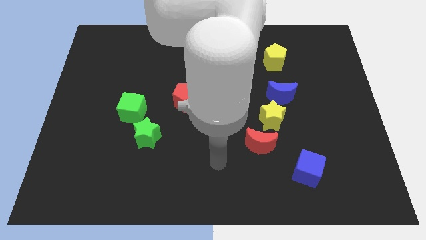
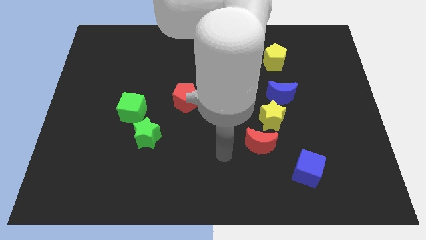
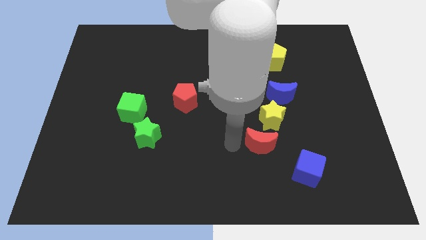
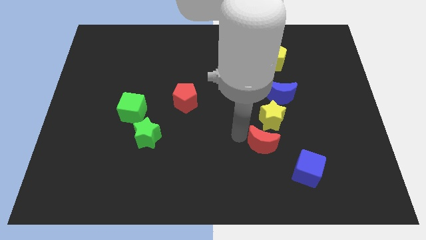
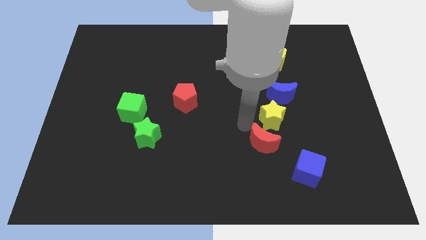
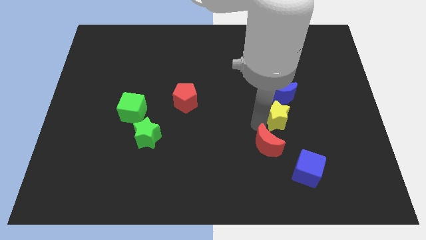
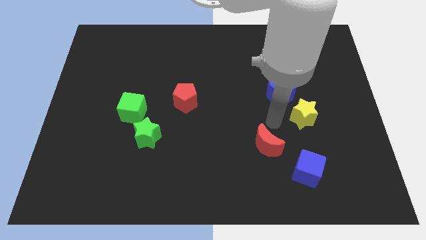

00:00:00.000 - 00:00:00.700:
separate the red moon from the yellow star

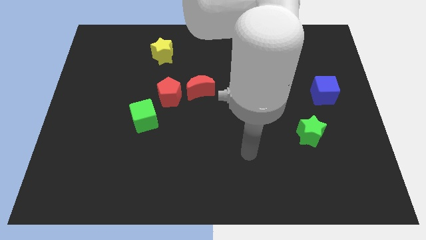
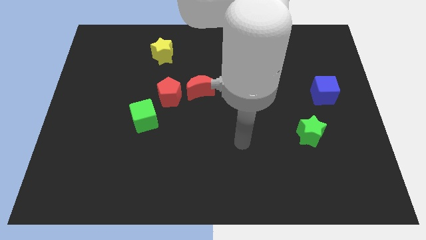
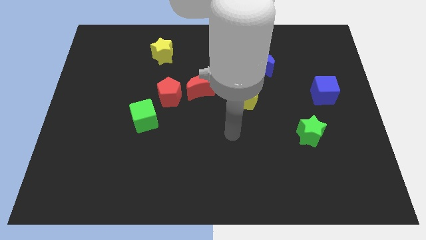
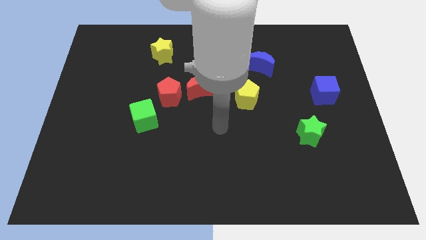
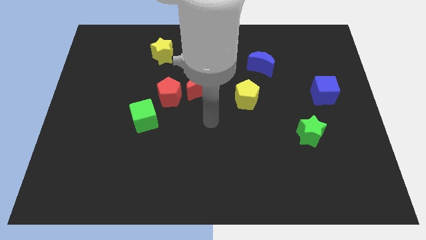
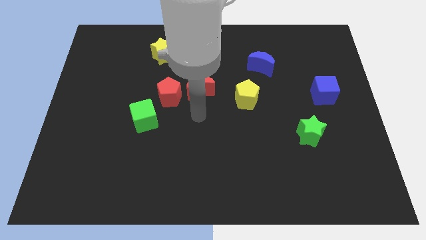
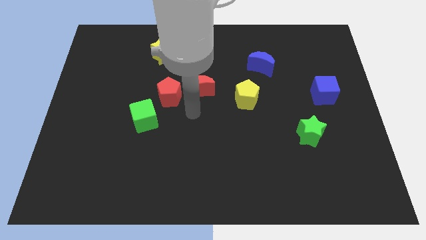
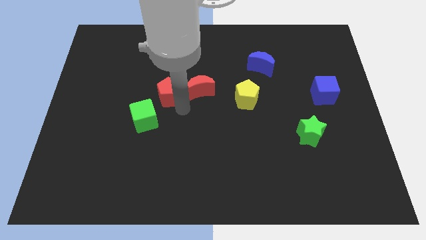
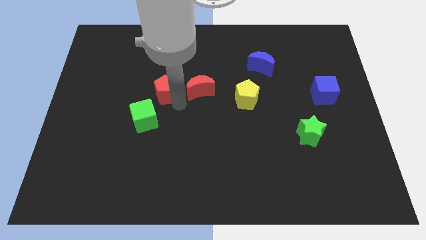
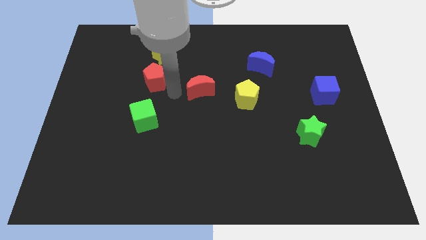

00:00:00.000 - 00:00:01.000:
pull the red moon apart from the red pentagon

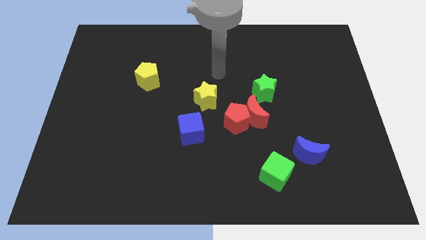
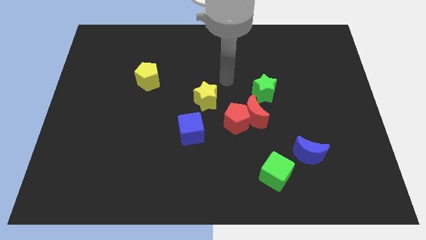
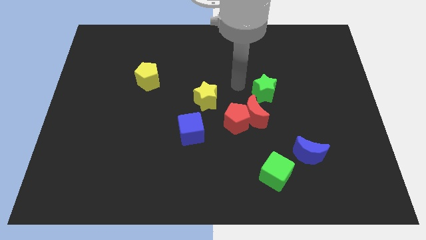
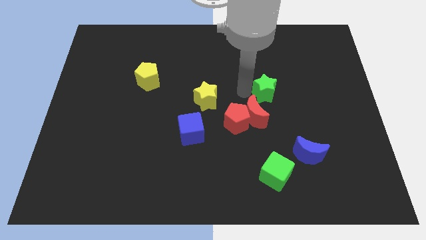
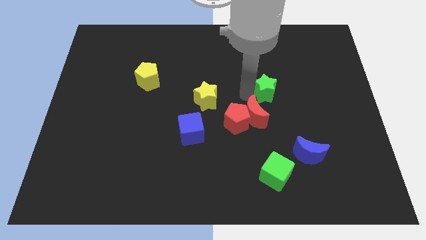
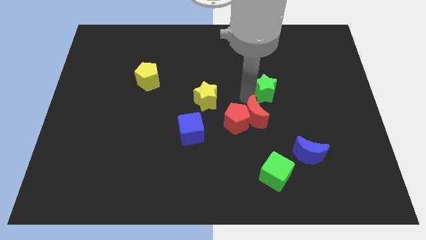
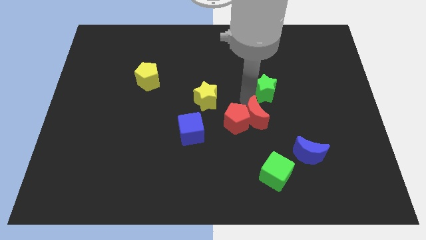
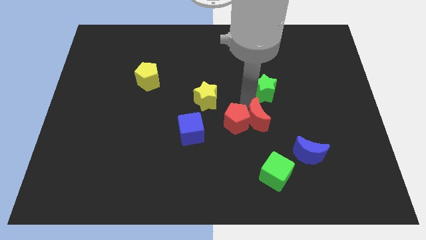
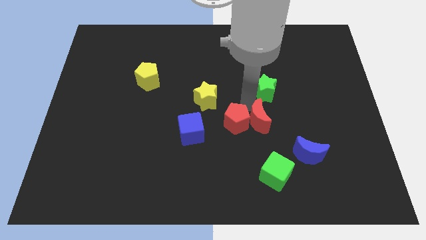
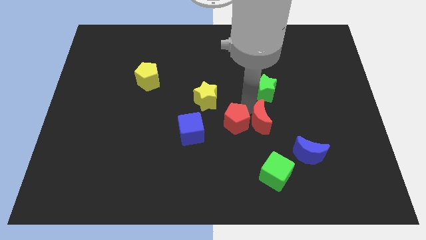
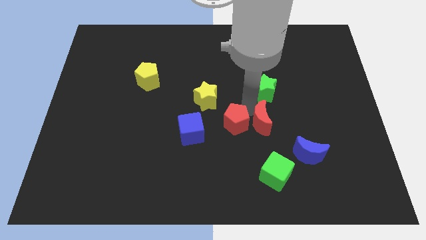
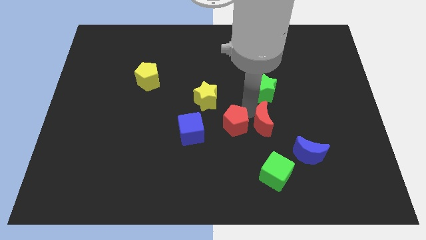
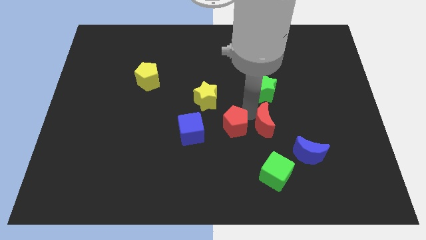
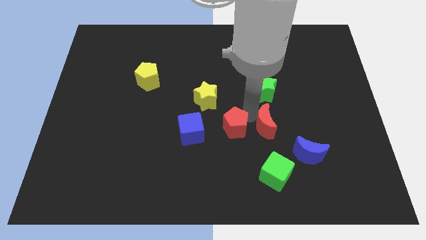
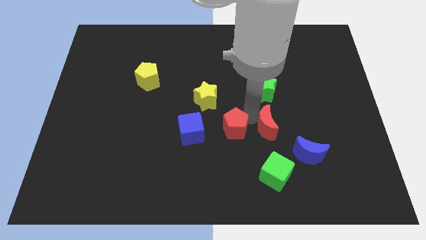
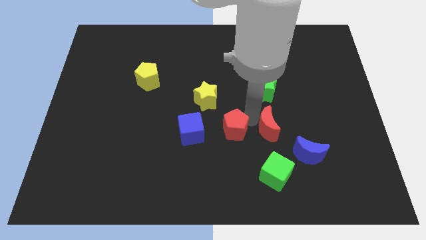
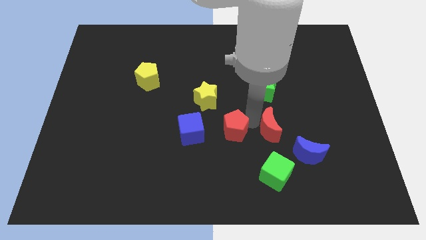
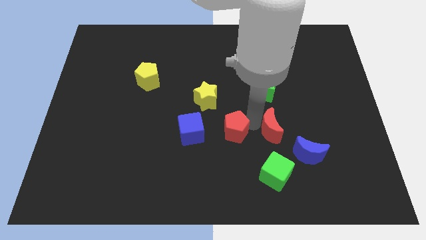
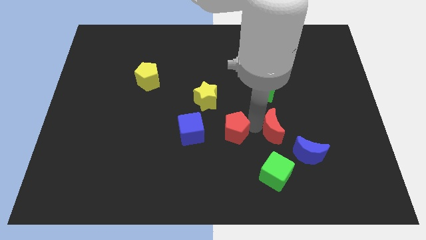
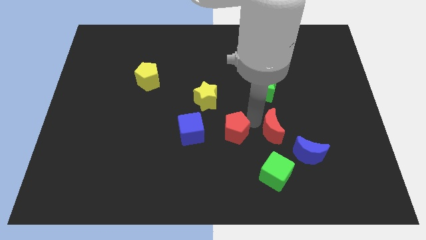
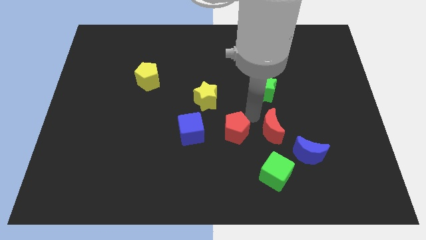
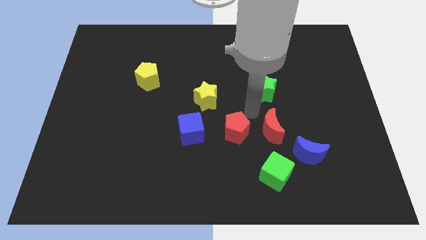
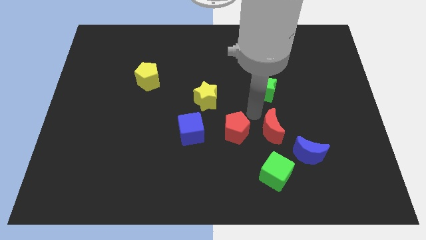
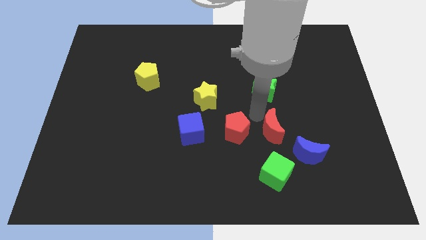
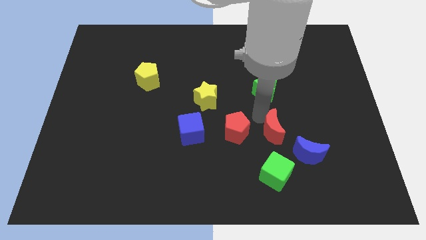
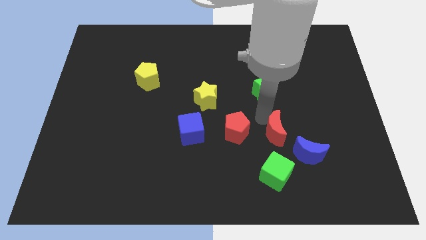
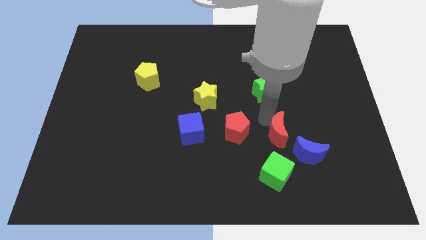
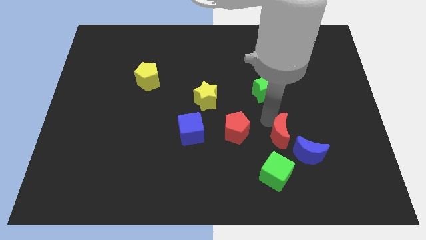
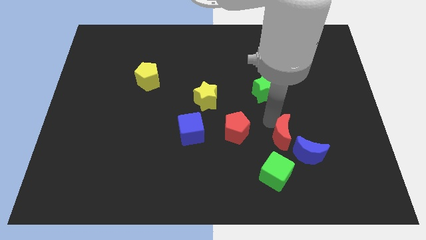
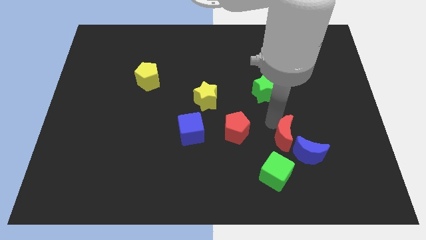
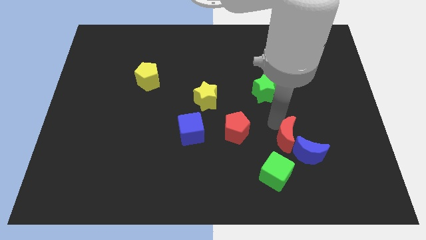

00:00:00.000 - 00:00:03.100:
pull the red moon apart from the red pentagon and green star

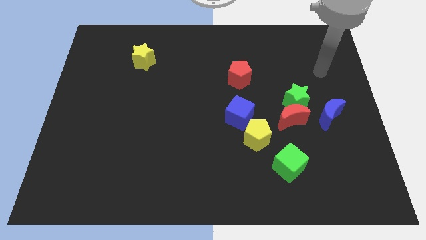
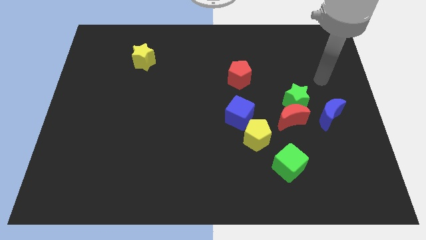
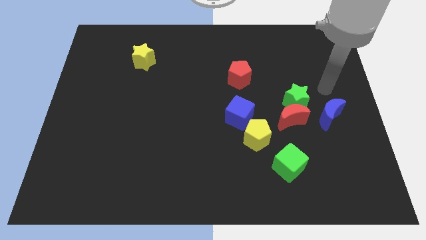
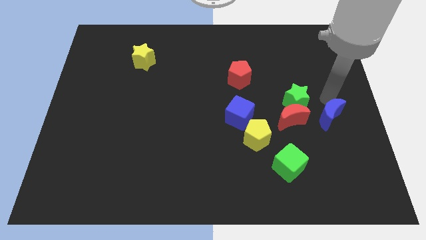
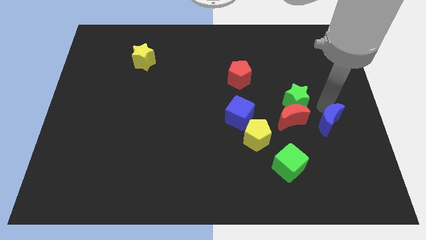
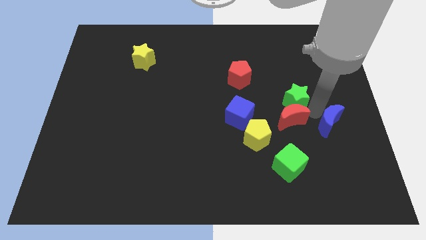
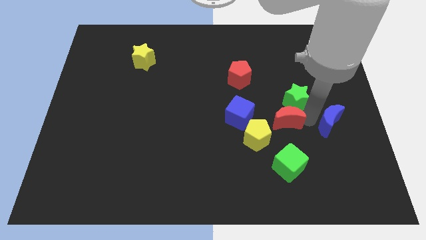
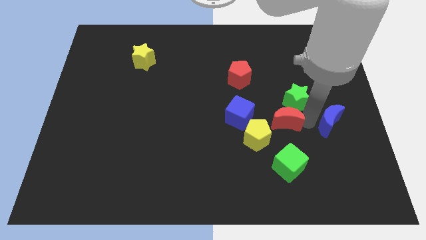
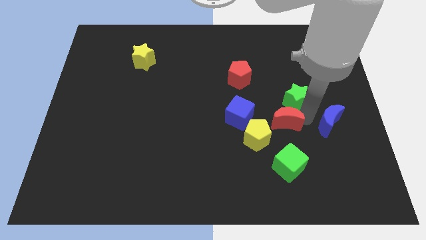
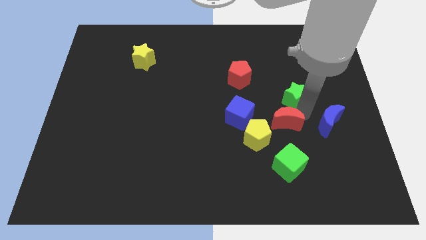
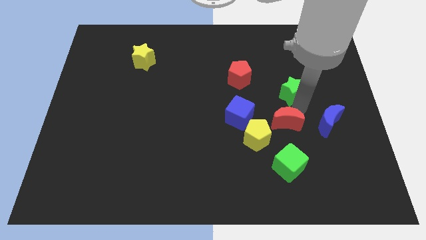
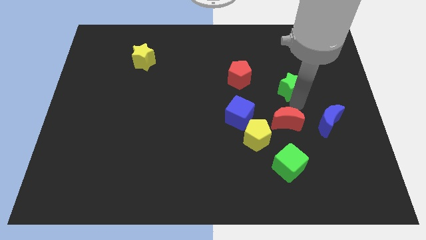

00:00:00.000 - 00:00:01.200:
move the green star away from the red moon and blue moon

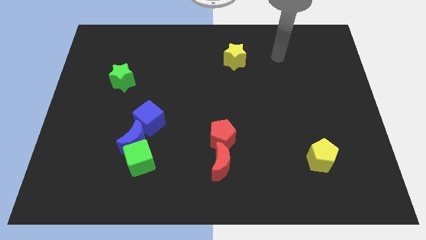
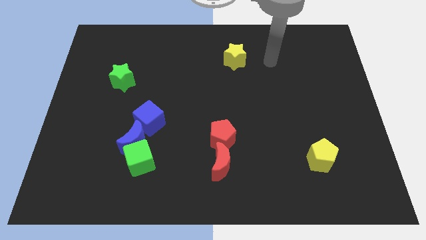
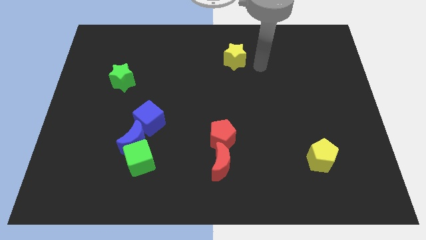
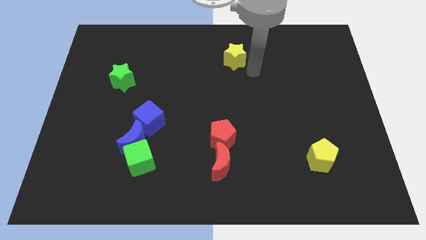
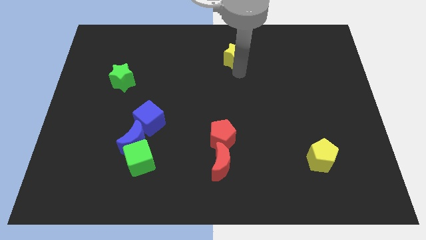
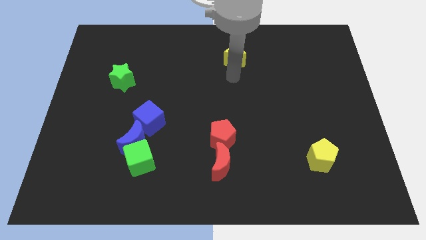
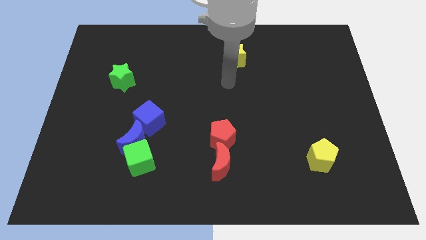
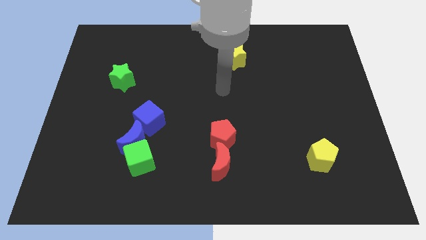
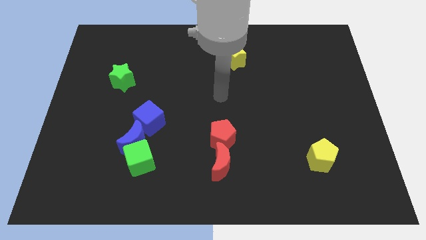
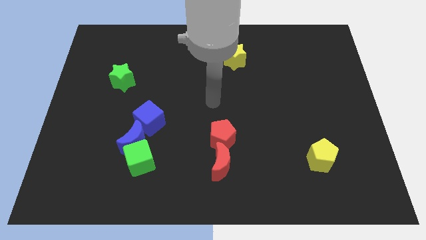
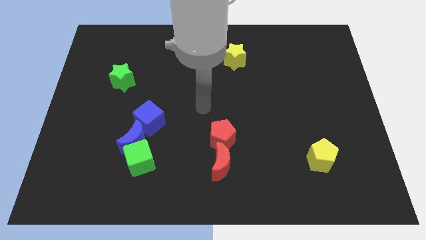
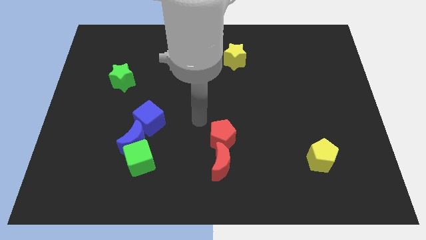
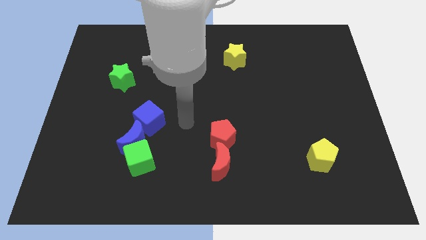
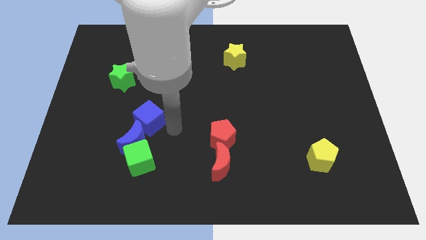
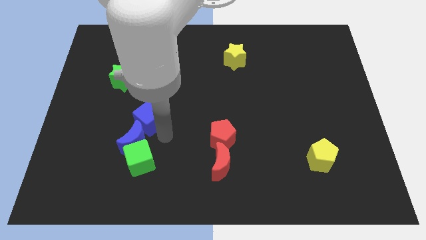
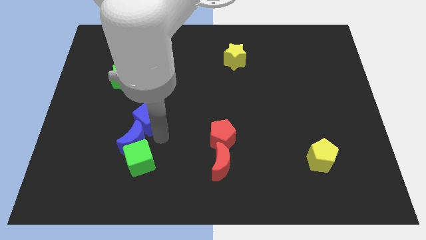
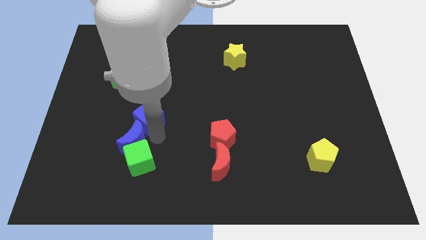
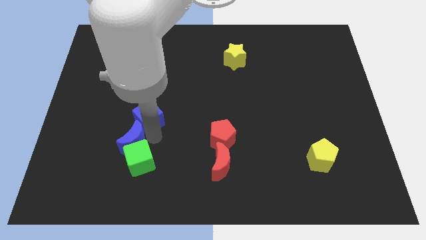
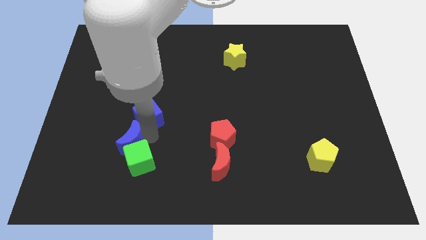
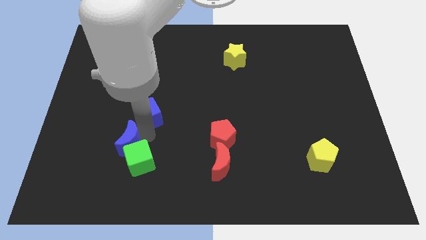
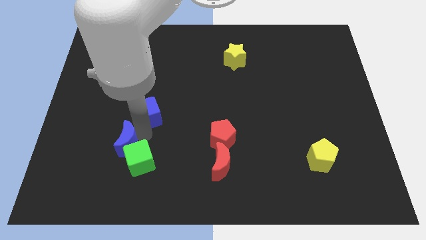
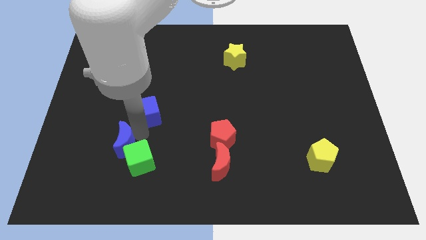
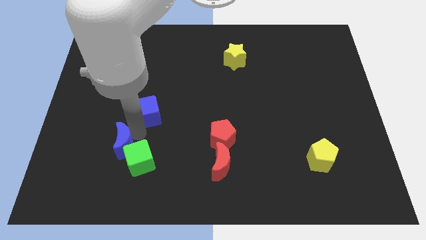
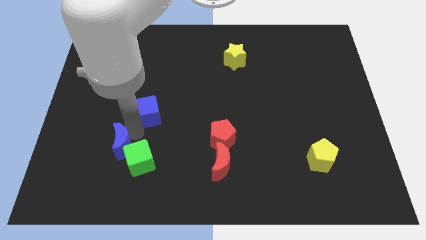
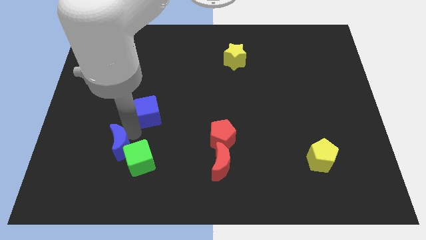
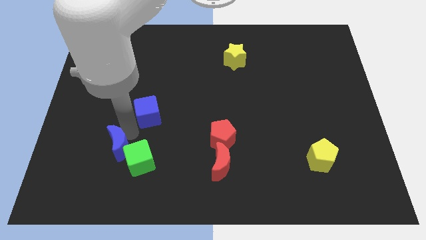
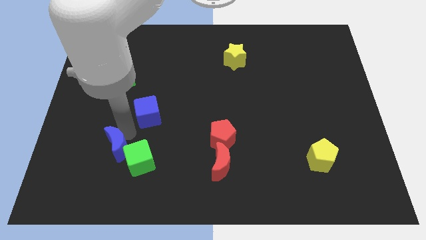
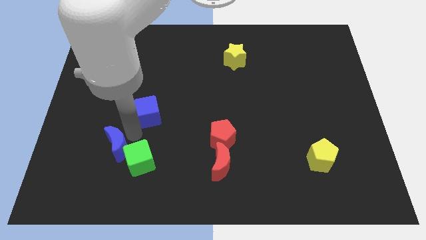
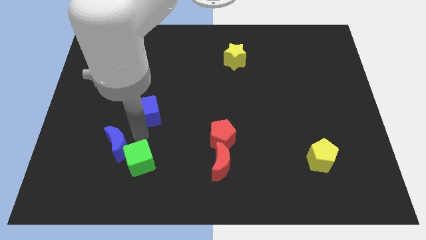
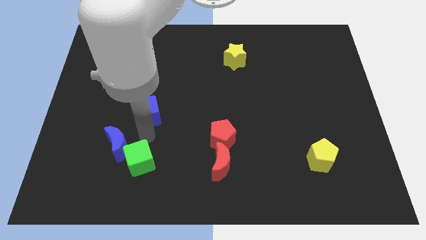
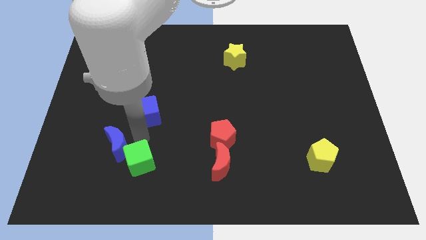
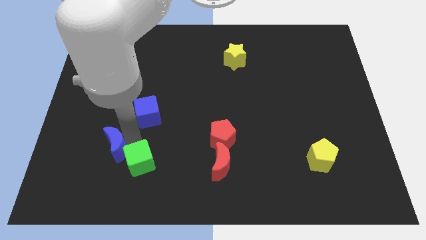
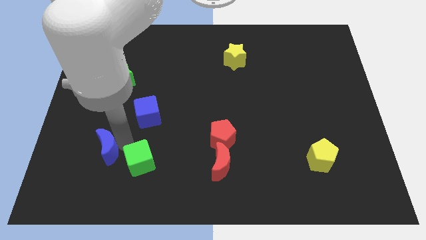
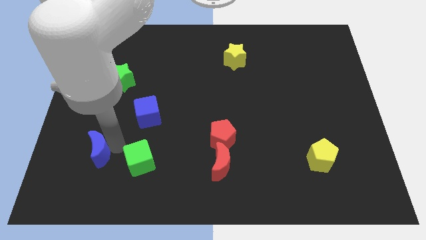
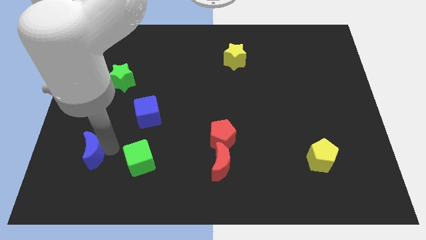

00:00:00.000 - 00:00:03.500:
move the blue moon away from the green cube and blue cube

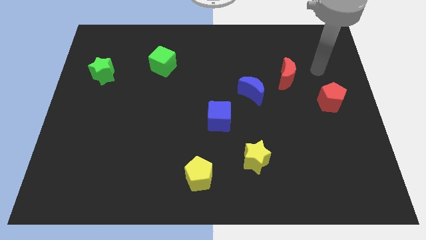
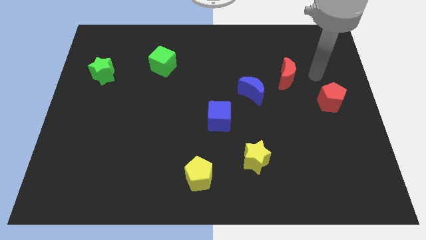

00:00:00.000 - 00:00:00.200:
separate the red moon from the blue moon
